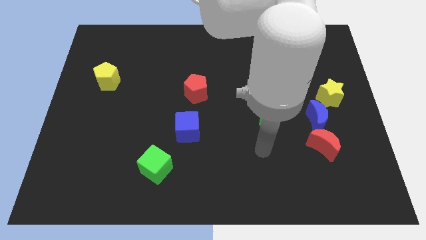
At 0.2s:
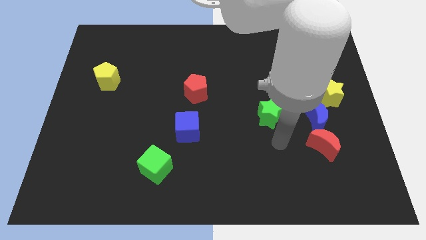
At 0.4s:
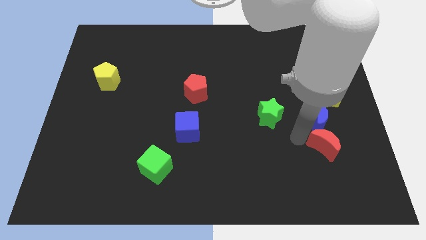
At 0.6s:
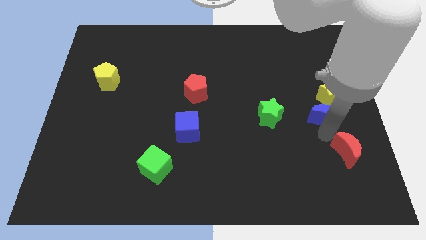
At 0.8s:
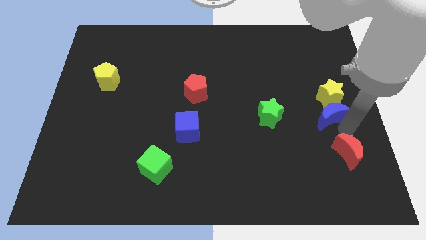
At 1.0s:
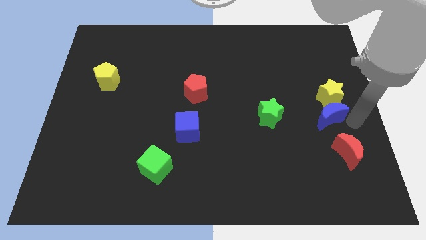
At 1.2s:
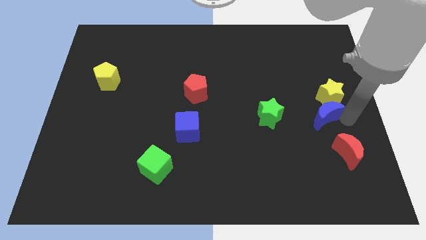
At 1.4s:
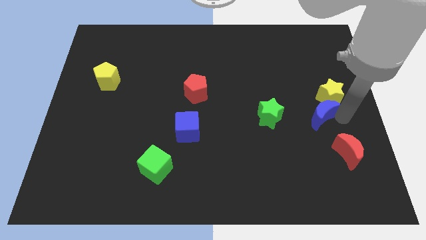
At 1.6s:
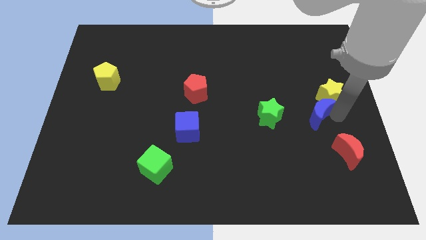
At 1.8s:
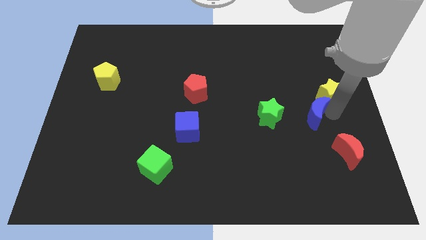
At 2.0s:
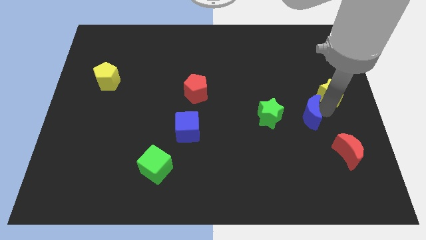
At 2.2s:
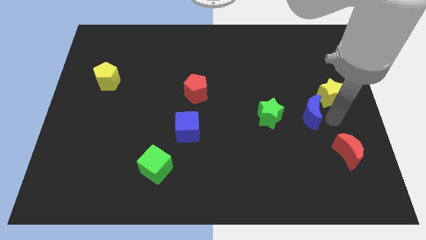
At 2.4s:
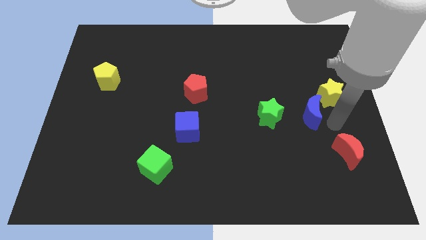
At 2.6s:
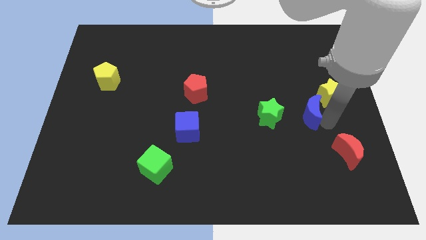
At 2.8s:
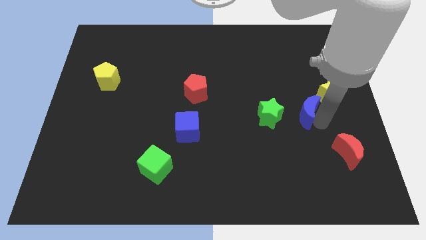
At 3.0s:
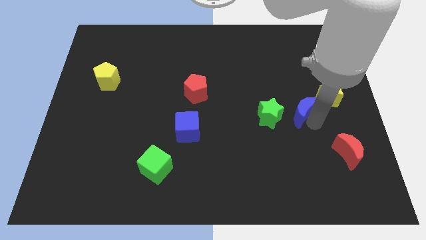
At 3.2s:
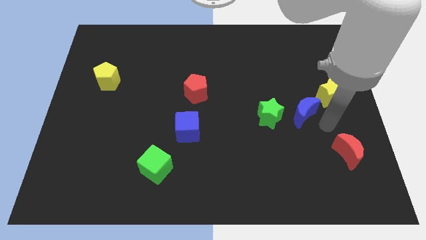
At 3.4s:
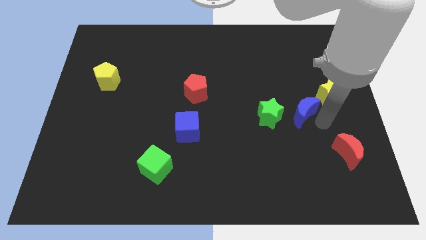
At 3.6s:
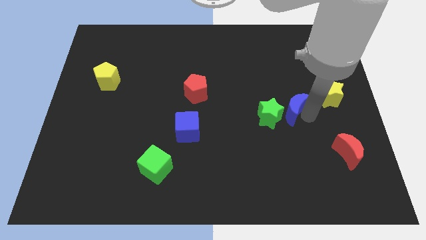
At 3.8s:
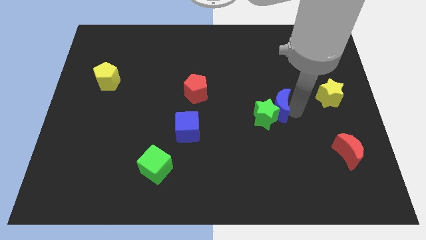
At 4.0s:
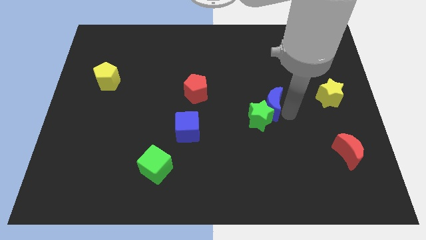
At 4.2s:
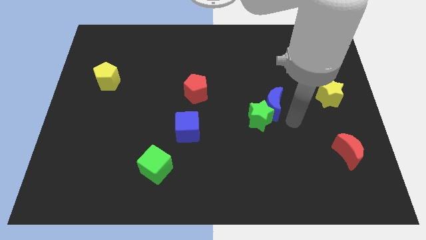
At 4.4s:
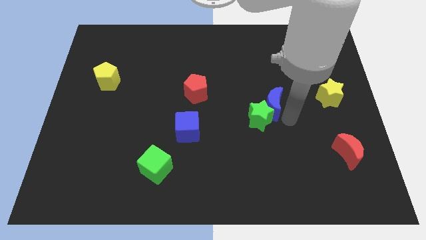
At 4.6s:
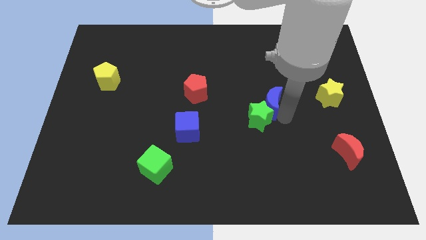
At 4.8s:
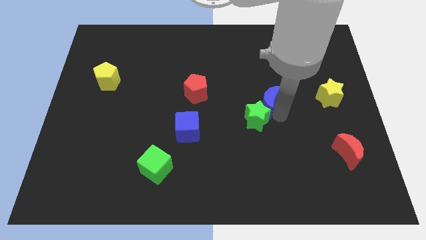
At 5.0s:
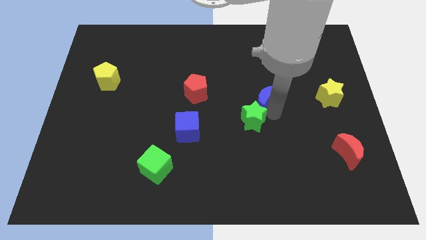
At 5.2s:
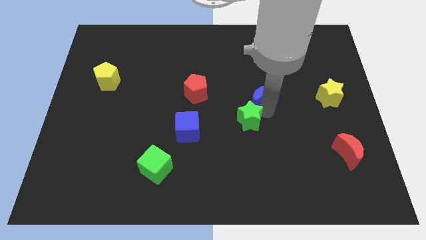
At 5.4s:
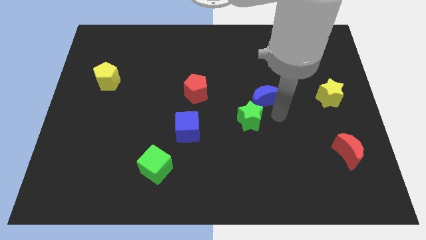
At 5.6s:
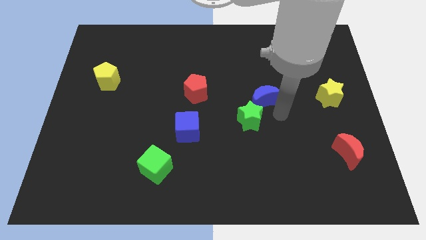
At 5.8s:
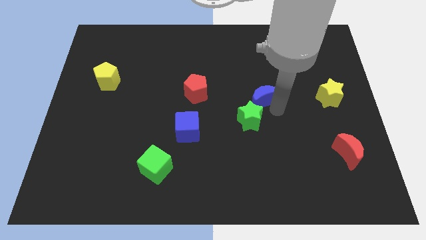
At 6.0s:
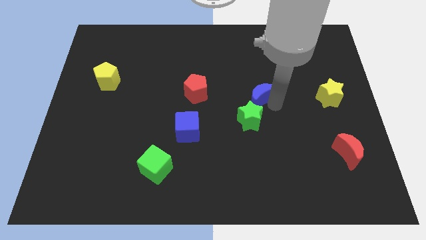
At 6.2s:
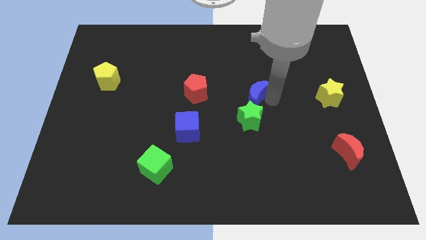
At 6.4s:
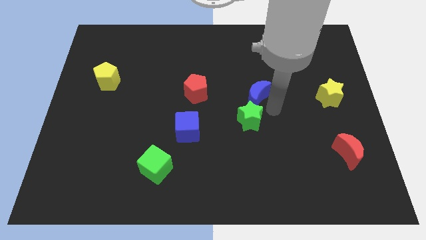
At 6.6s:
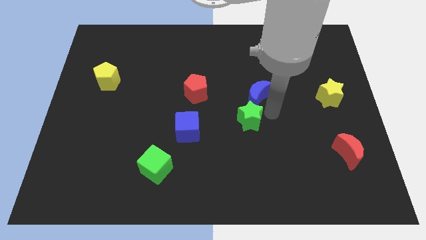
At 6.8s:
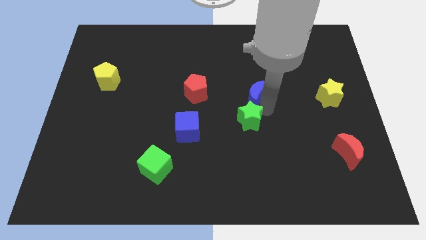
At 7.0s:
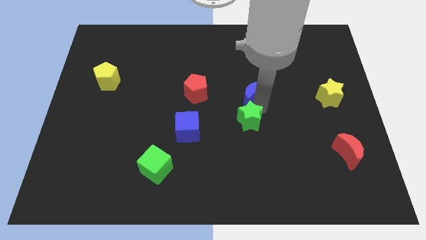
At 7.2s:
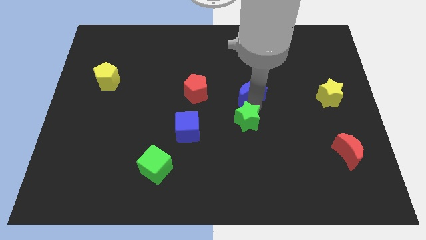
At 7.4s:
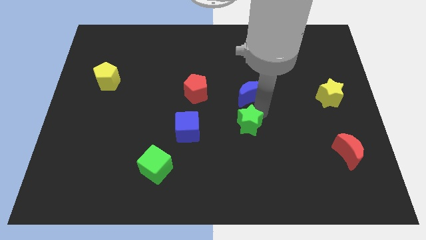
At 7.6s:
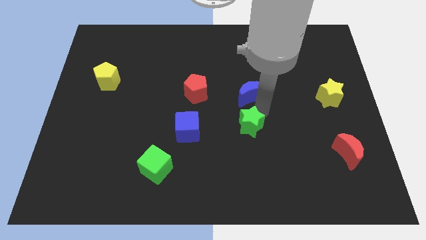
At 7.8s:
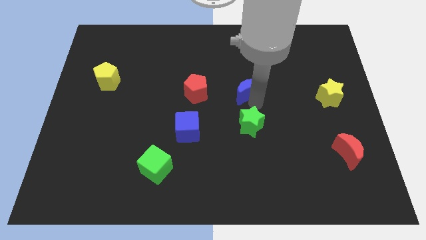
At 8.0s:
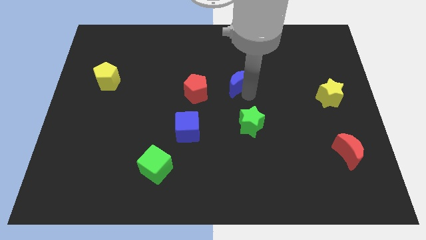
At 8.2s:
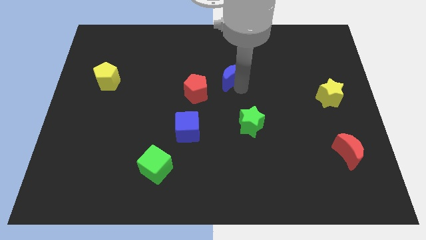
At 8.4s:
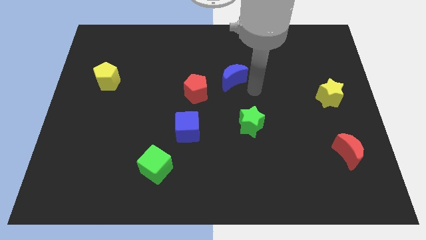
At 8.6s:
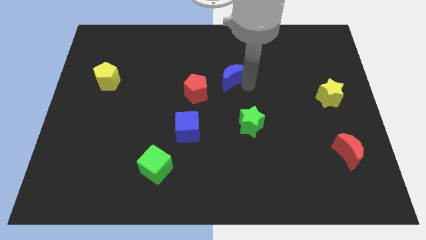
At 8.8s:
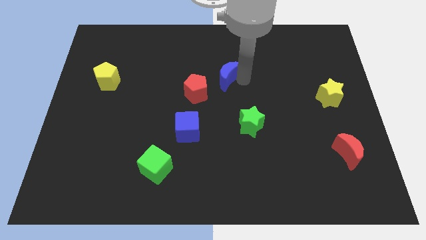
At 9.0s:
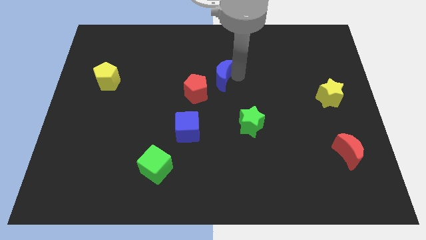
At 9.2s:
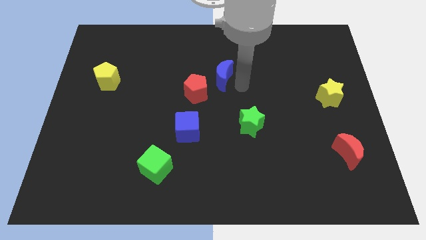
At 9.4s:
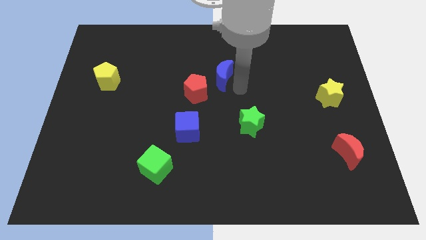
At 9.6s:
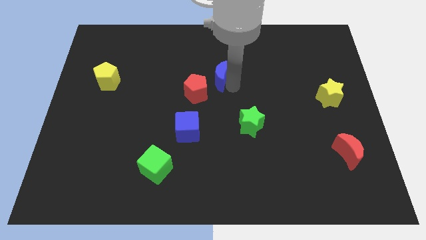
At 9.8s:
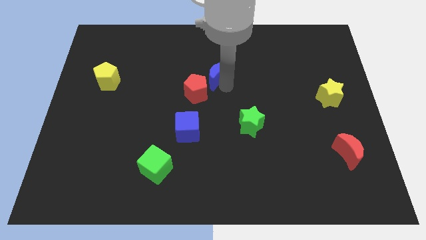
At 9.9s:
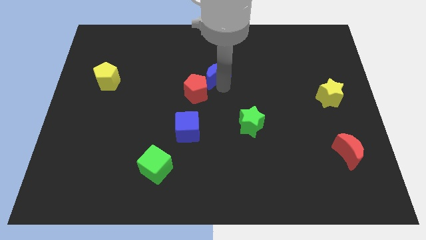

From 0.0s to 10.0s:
put the blue moon to the top of the red pentagon

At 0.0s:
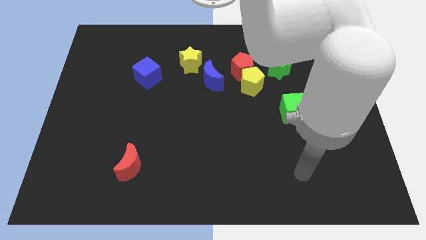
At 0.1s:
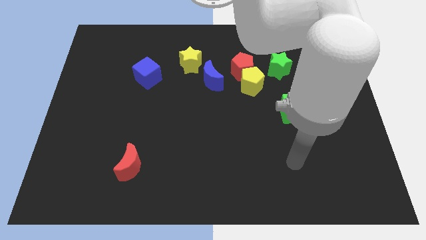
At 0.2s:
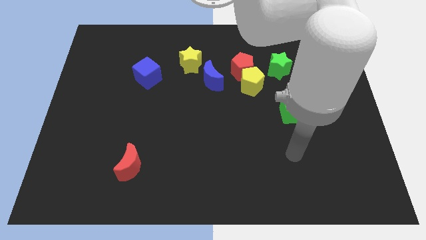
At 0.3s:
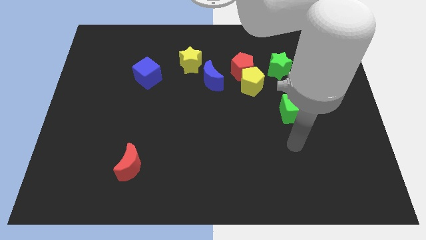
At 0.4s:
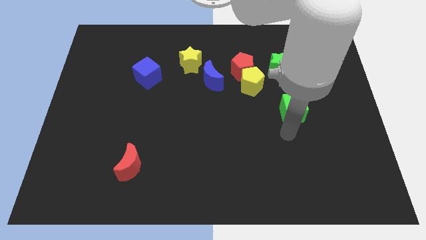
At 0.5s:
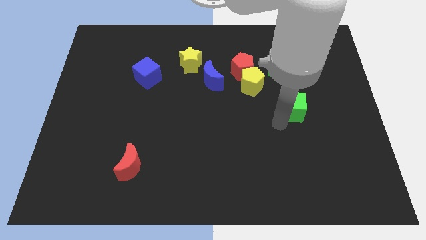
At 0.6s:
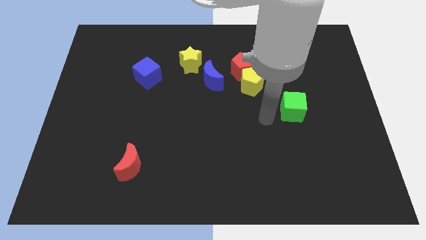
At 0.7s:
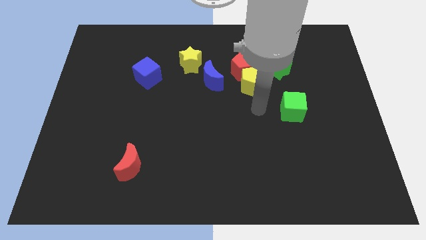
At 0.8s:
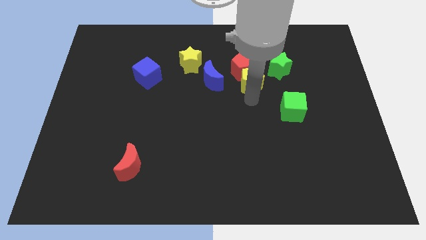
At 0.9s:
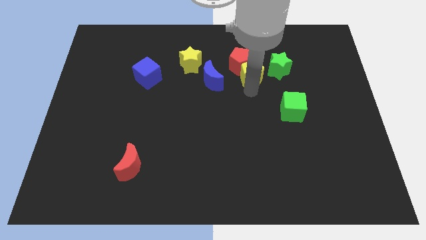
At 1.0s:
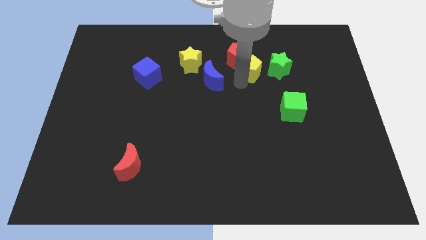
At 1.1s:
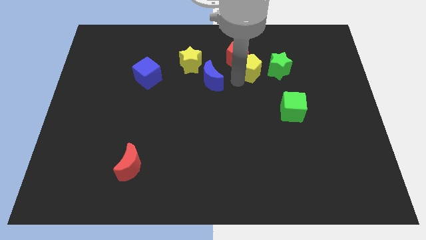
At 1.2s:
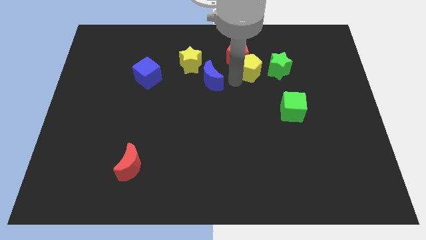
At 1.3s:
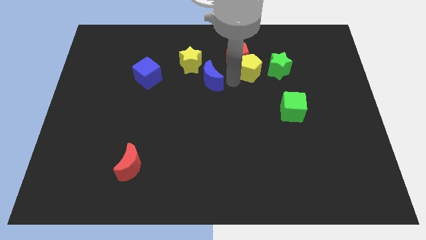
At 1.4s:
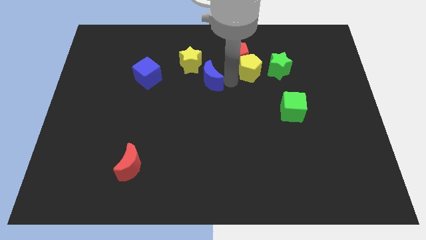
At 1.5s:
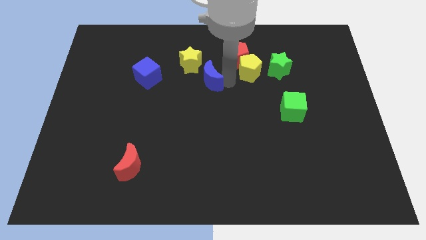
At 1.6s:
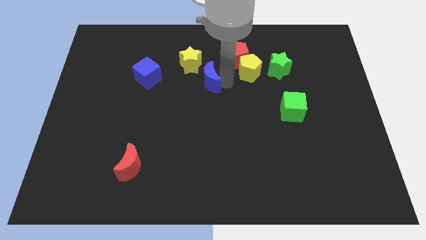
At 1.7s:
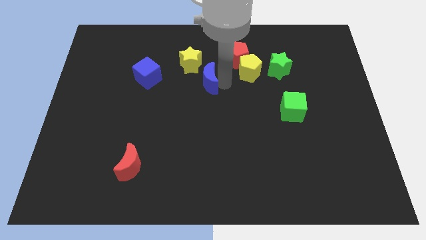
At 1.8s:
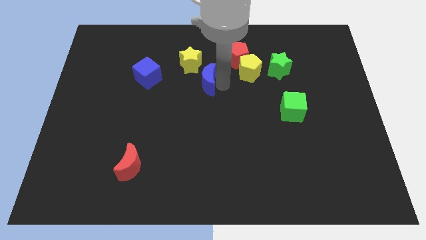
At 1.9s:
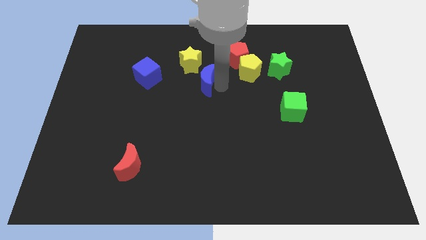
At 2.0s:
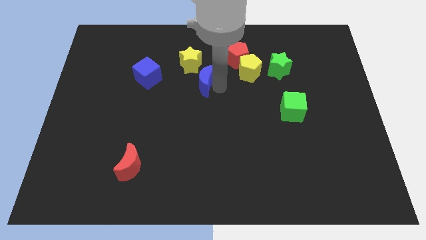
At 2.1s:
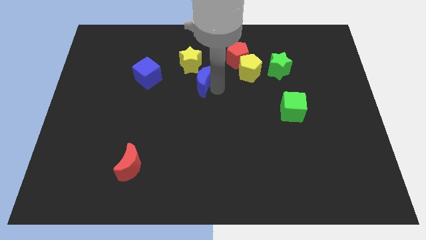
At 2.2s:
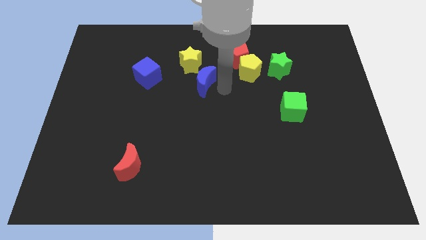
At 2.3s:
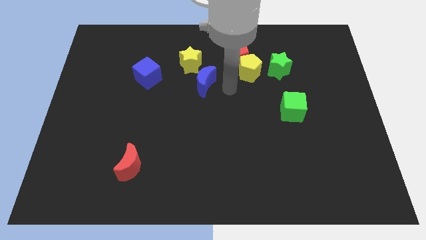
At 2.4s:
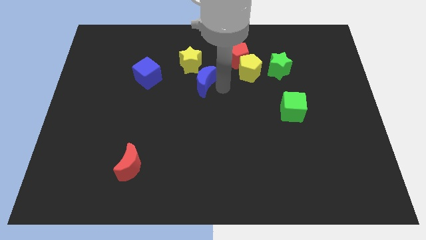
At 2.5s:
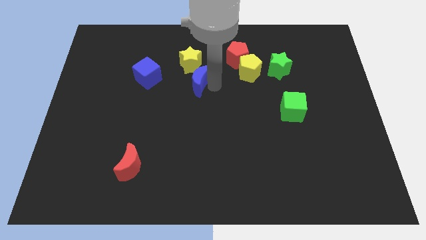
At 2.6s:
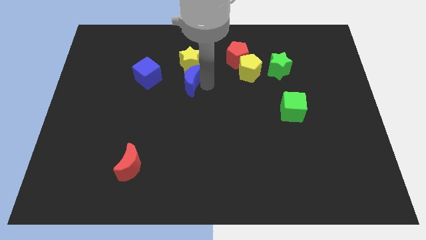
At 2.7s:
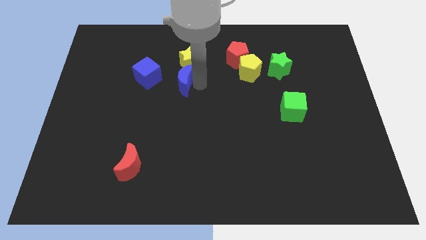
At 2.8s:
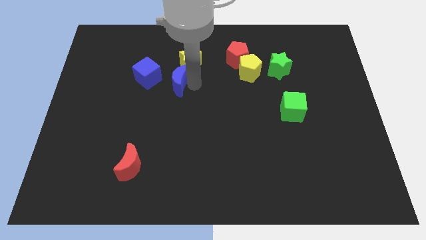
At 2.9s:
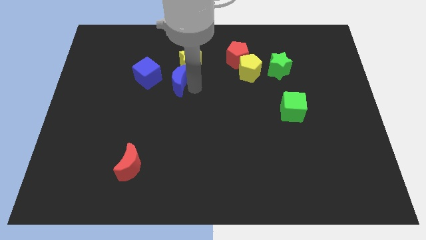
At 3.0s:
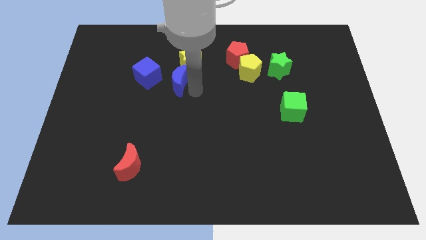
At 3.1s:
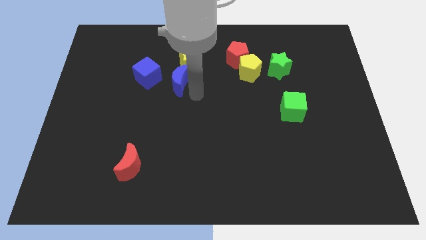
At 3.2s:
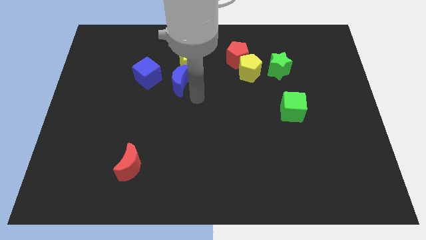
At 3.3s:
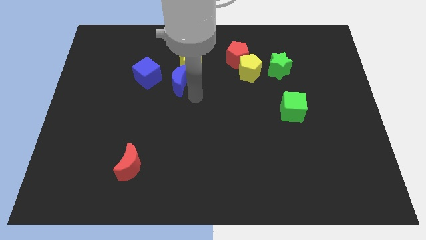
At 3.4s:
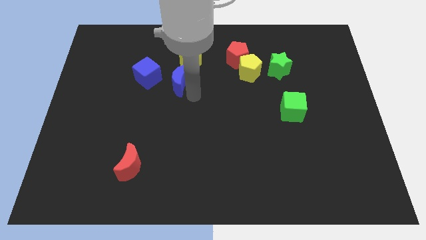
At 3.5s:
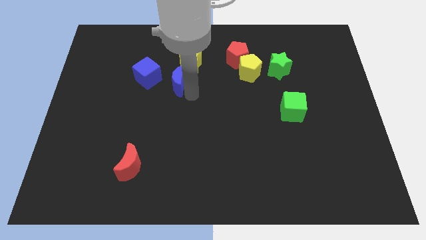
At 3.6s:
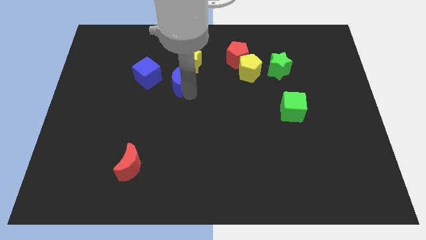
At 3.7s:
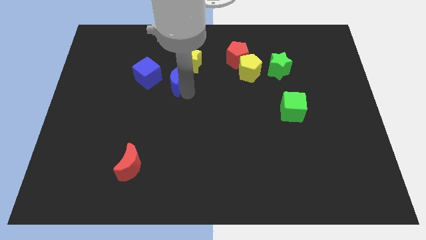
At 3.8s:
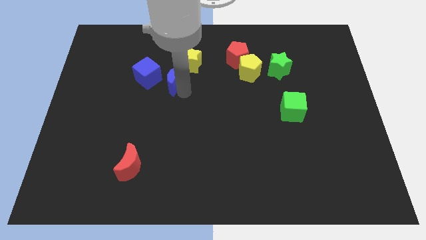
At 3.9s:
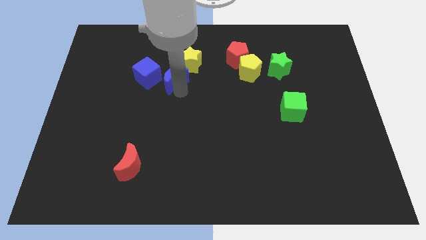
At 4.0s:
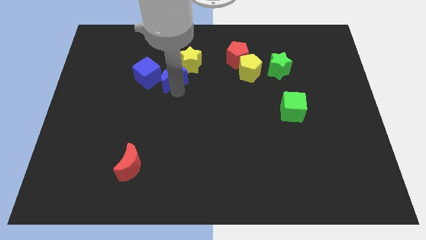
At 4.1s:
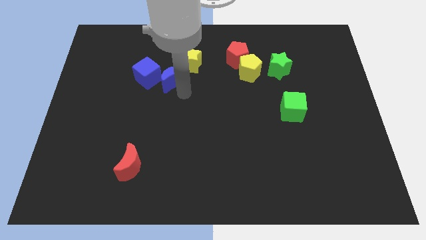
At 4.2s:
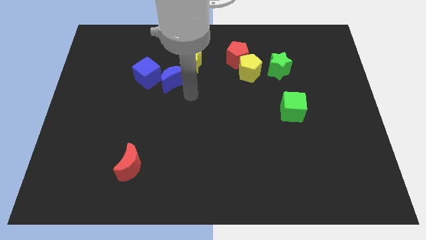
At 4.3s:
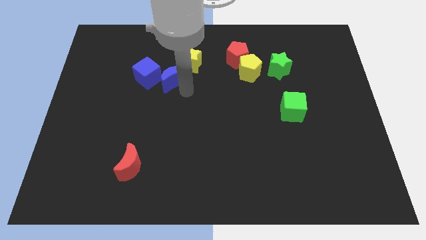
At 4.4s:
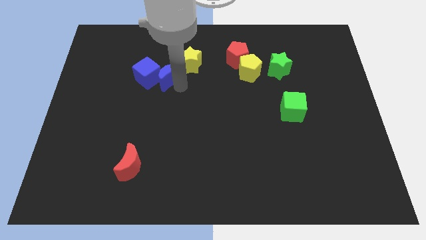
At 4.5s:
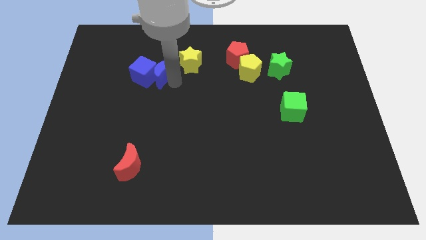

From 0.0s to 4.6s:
put the blue moon to the left side of the yellow star
